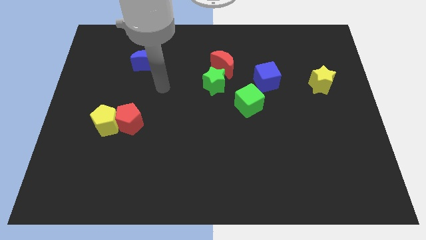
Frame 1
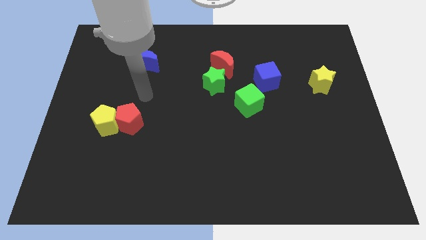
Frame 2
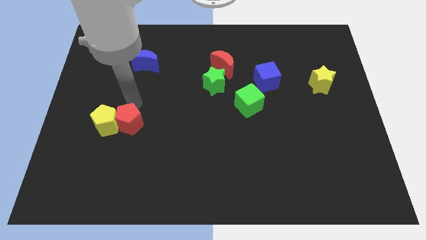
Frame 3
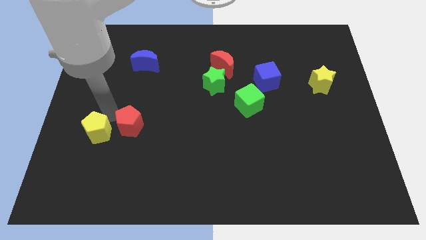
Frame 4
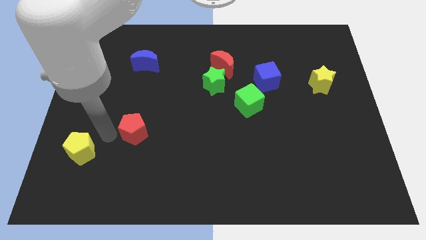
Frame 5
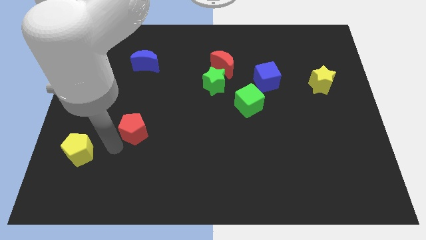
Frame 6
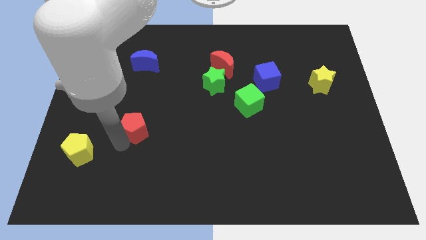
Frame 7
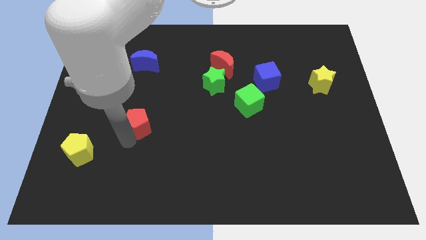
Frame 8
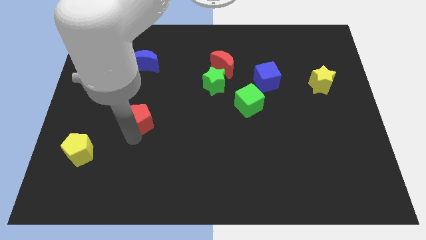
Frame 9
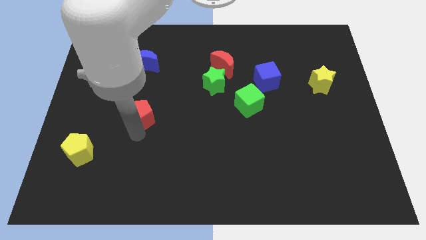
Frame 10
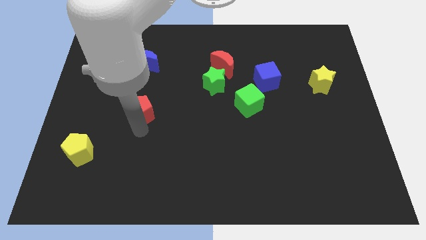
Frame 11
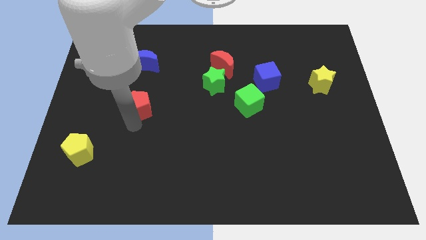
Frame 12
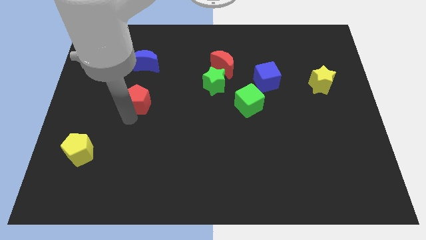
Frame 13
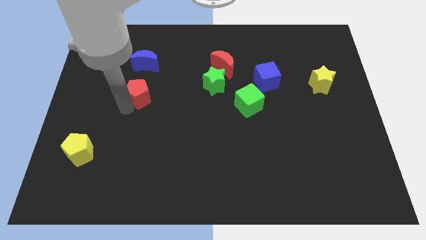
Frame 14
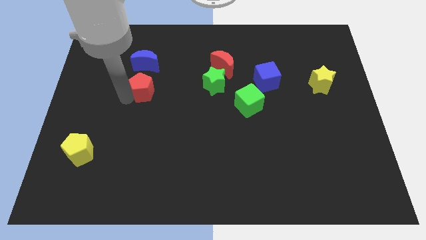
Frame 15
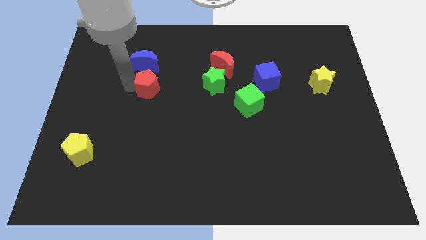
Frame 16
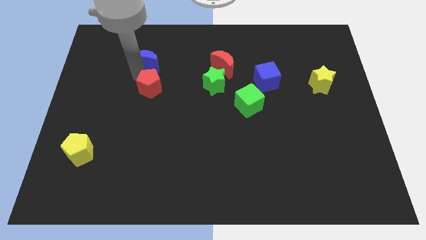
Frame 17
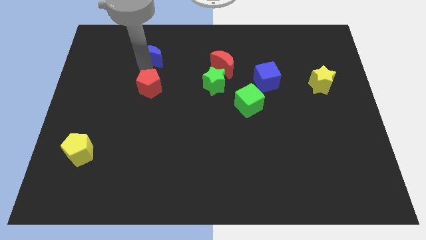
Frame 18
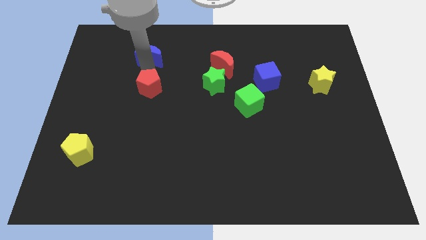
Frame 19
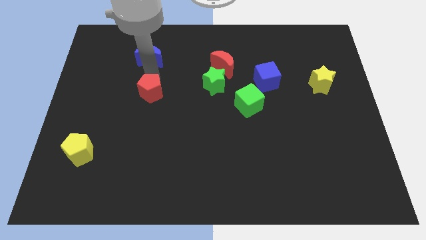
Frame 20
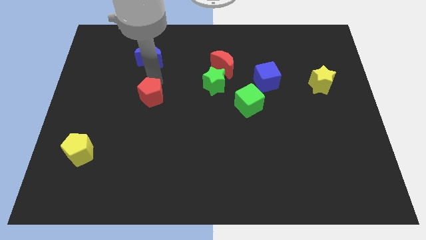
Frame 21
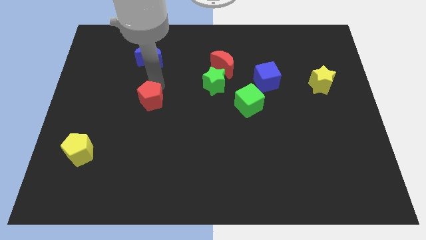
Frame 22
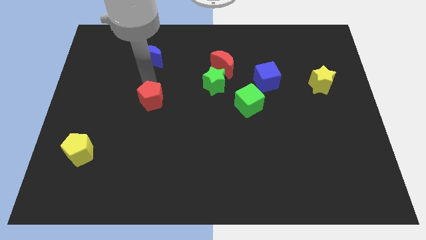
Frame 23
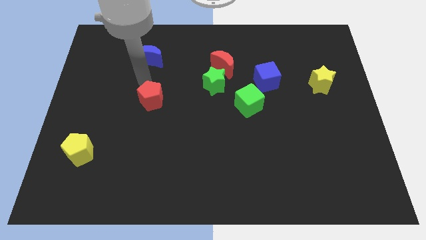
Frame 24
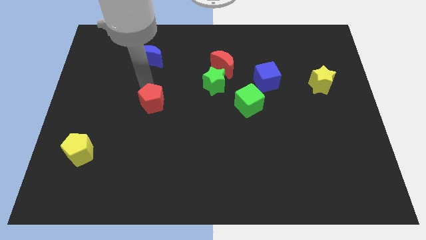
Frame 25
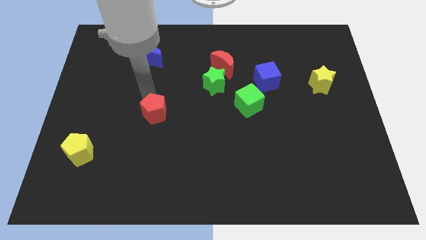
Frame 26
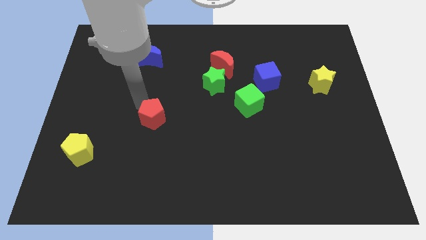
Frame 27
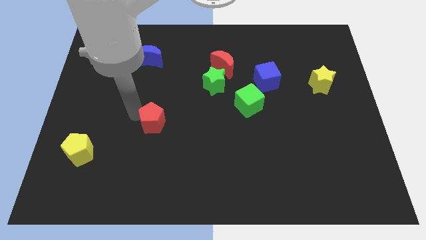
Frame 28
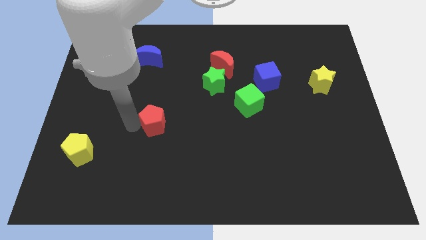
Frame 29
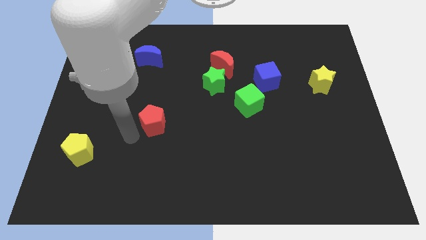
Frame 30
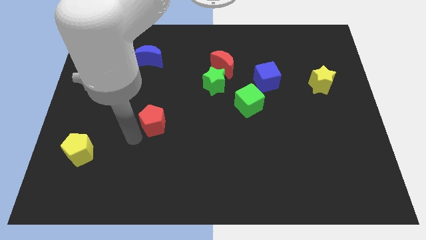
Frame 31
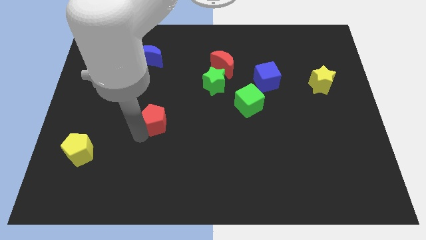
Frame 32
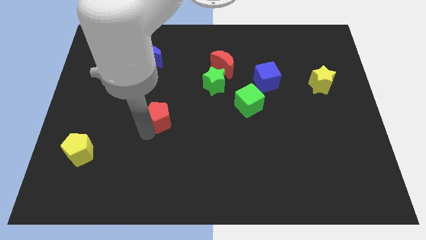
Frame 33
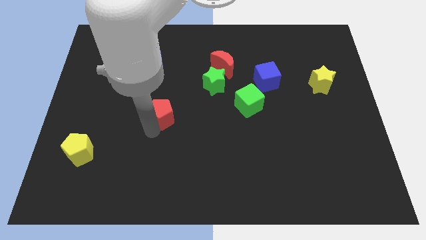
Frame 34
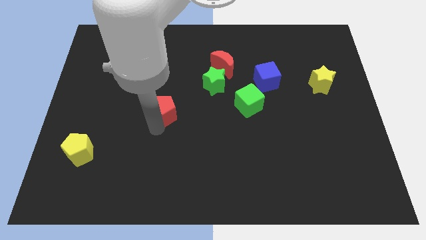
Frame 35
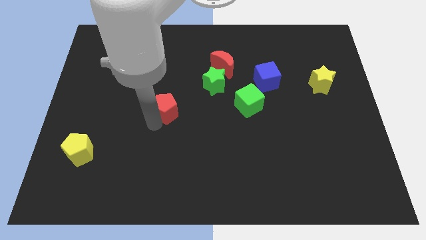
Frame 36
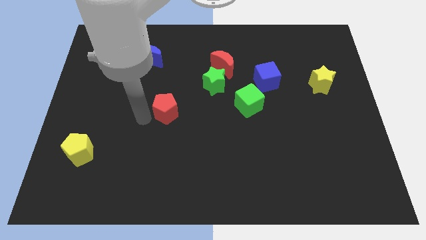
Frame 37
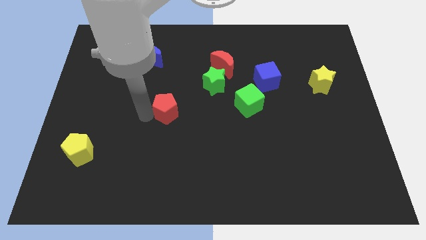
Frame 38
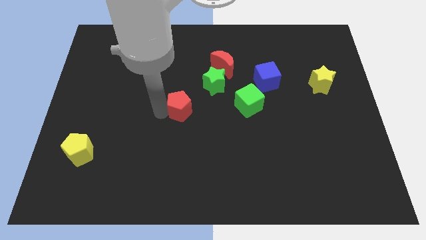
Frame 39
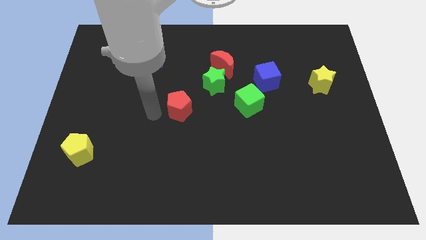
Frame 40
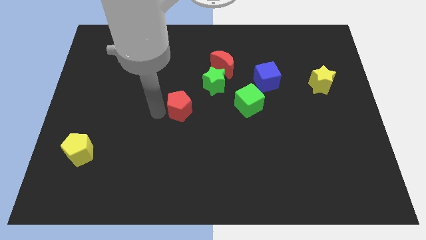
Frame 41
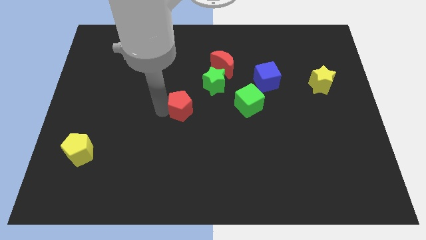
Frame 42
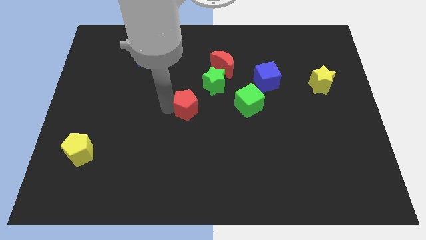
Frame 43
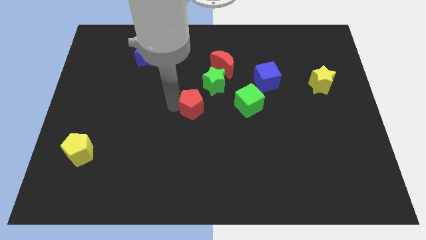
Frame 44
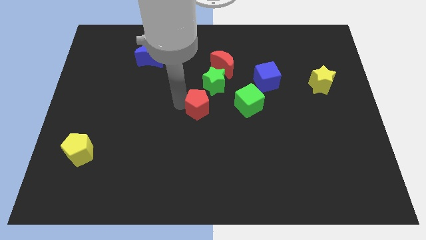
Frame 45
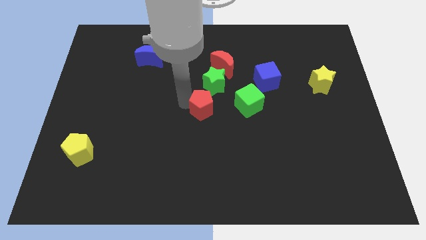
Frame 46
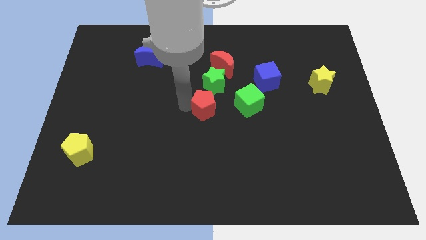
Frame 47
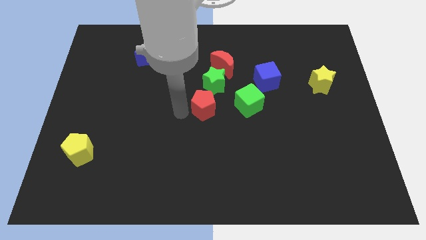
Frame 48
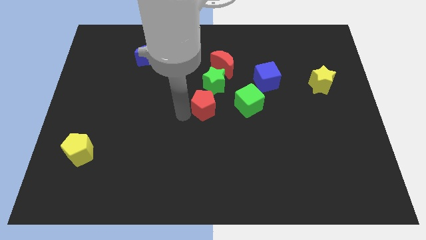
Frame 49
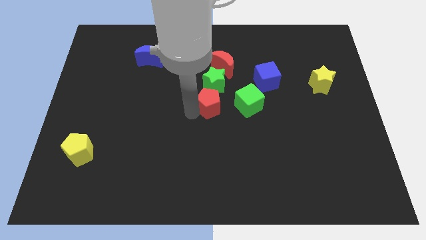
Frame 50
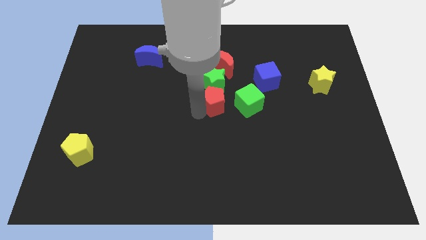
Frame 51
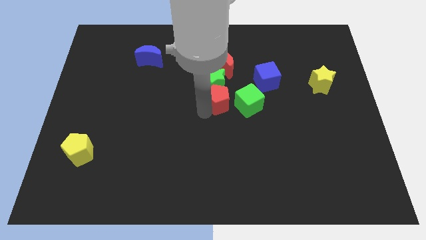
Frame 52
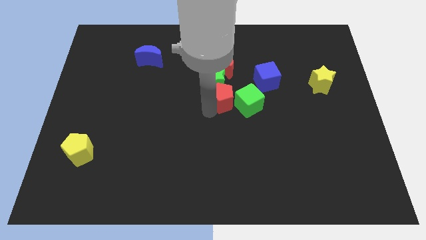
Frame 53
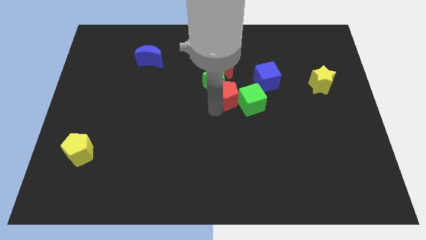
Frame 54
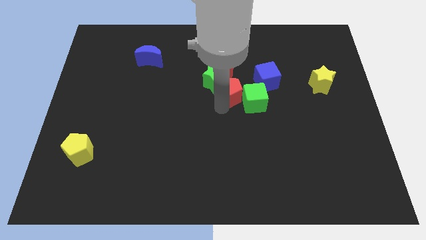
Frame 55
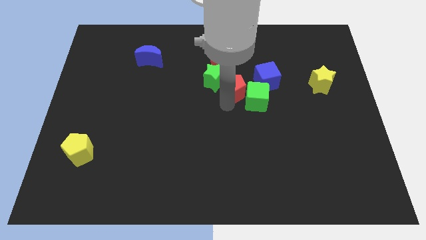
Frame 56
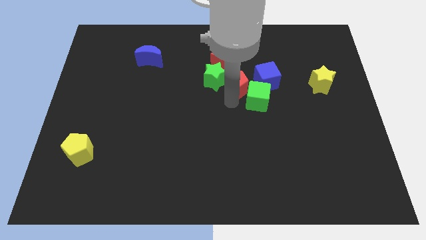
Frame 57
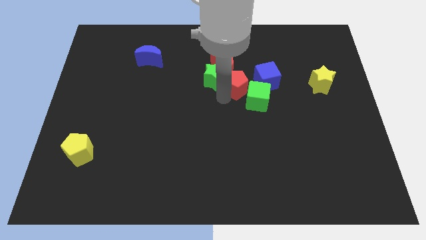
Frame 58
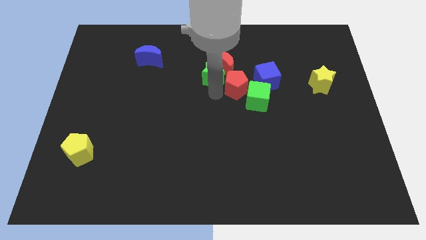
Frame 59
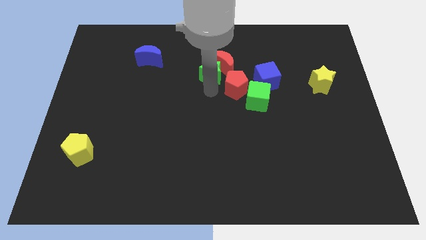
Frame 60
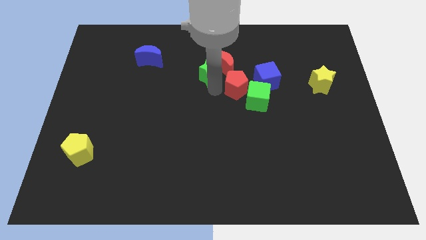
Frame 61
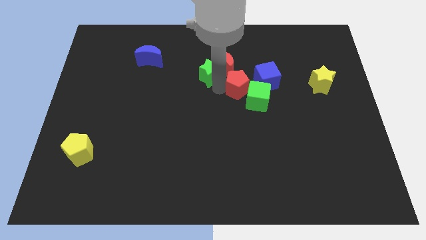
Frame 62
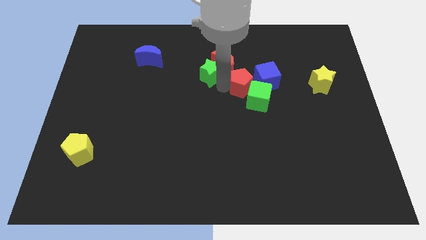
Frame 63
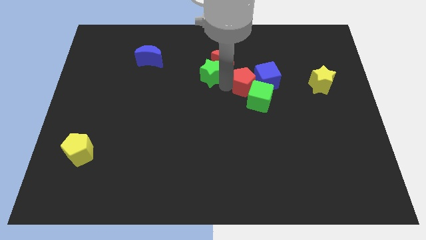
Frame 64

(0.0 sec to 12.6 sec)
slide the red pentagon towards the blue cube

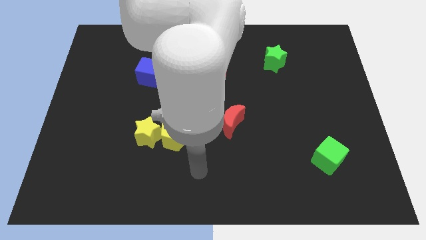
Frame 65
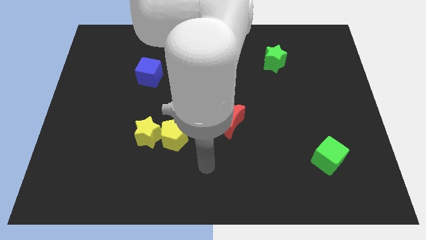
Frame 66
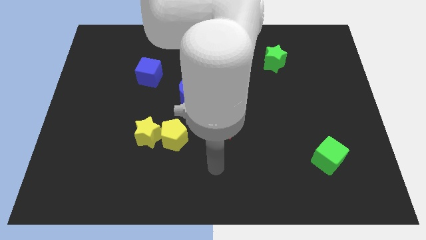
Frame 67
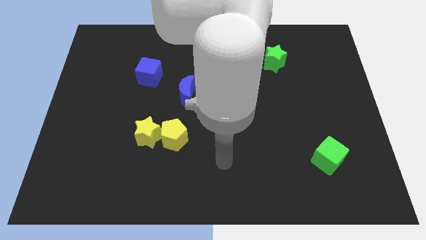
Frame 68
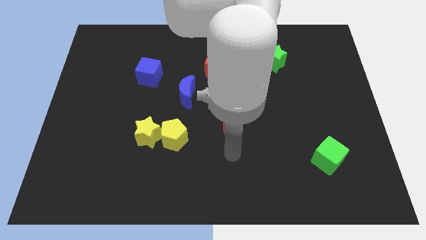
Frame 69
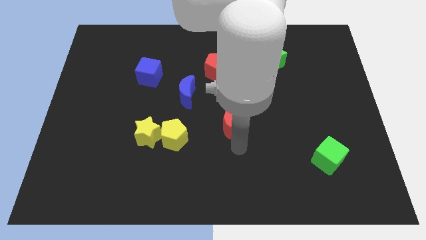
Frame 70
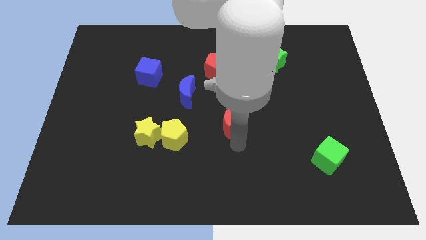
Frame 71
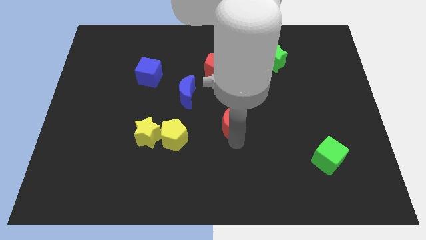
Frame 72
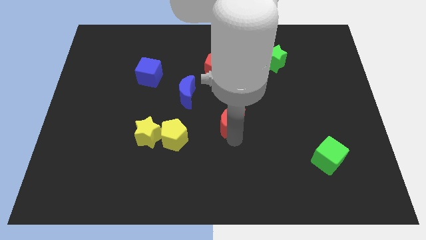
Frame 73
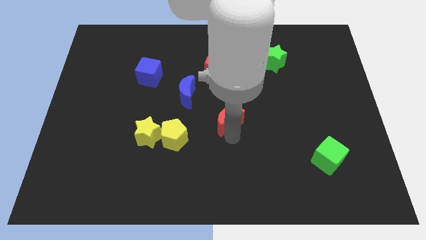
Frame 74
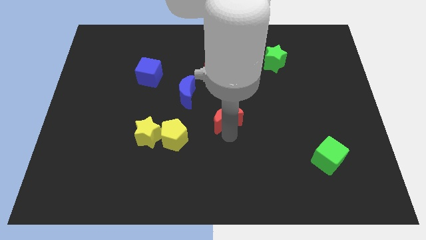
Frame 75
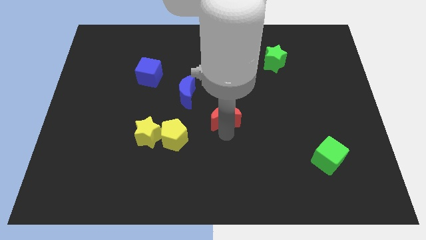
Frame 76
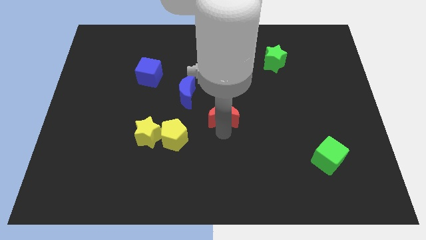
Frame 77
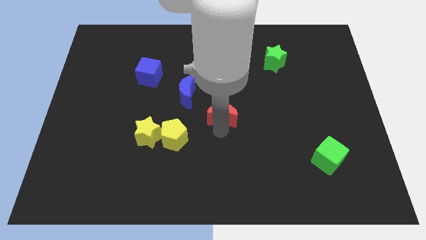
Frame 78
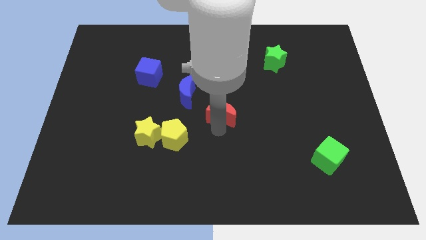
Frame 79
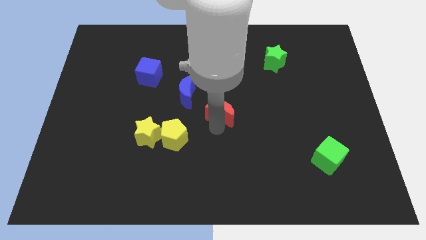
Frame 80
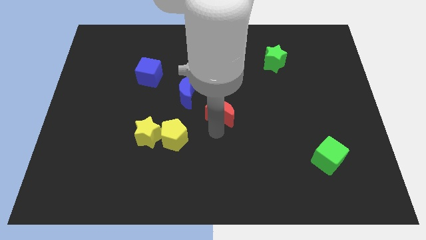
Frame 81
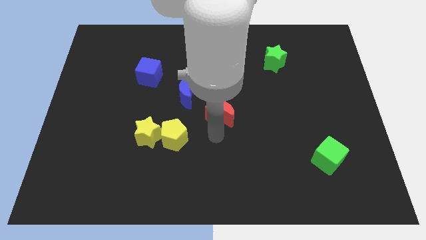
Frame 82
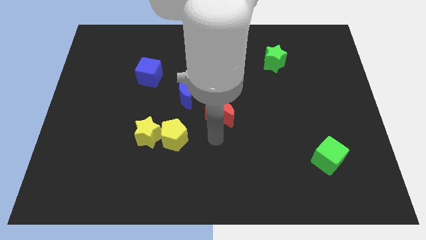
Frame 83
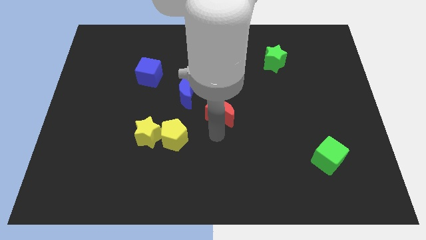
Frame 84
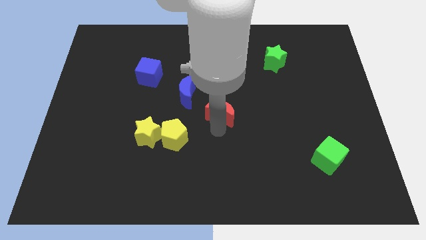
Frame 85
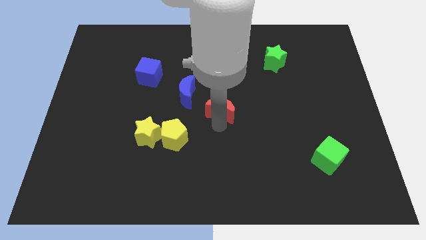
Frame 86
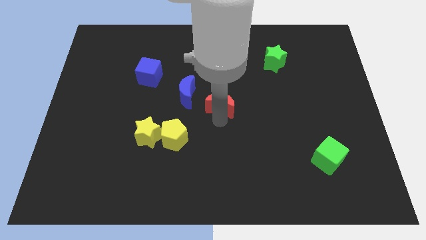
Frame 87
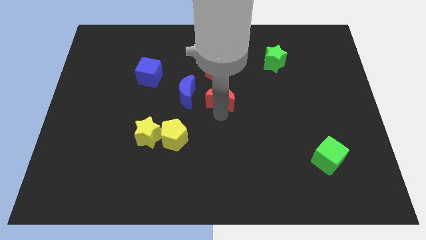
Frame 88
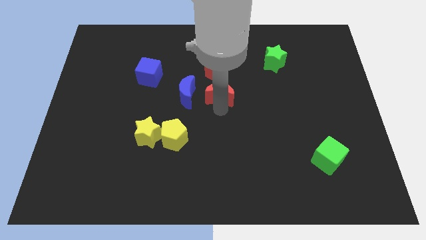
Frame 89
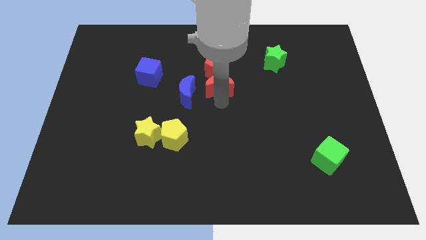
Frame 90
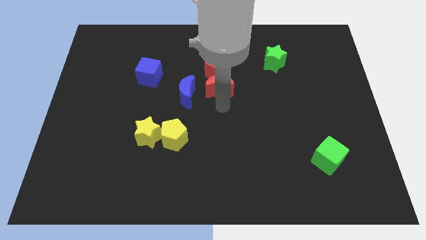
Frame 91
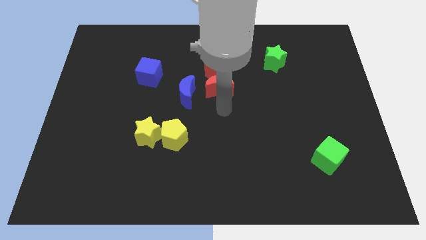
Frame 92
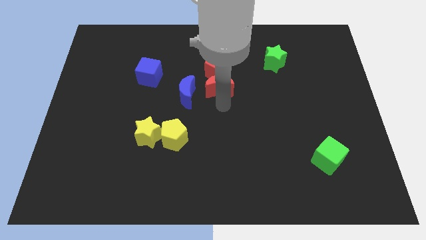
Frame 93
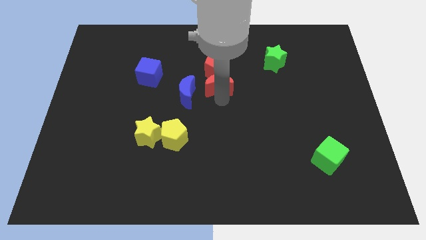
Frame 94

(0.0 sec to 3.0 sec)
put the red moon next to the red pentagon
